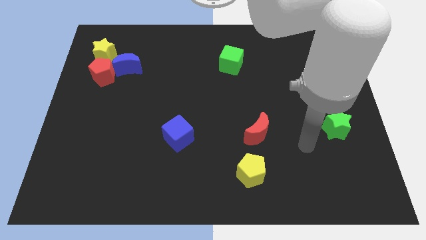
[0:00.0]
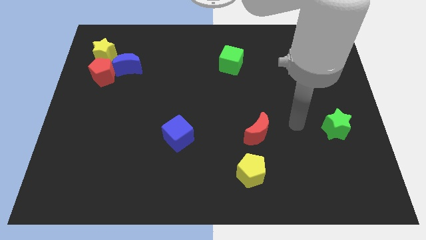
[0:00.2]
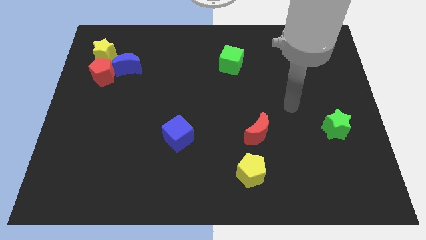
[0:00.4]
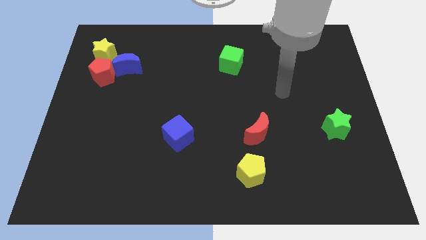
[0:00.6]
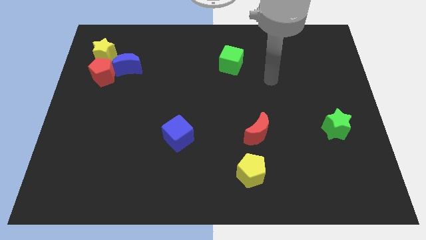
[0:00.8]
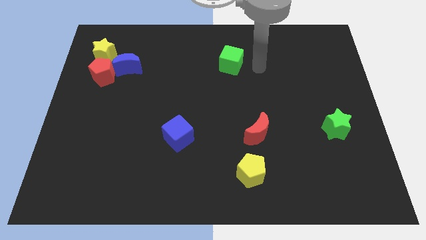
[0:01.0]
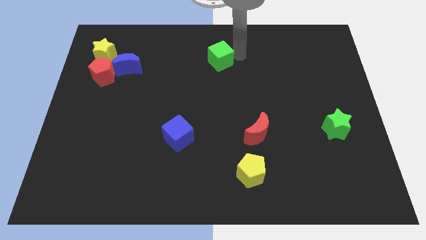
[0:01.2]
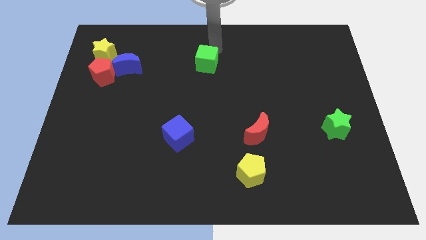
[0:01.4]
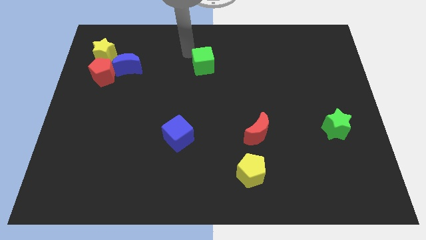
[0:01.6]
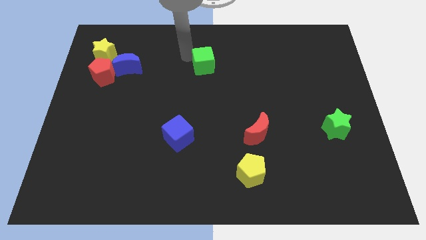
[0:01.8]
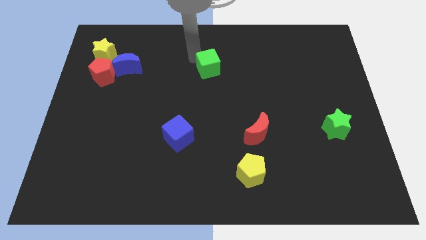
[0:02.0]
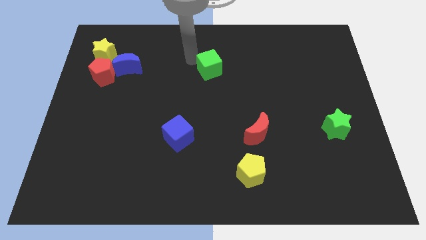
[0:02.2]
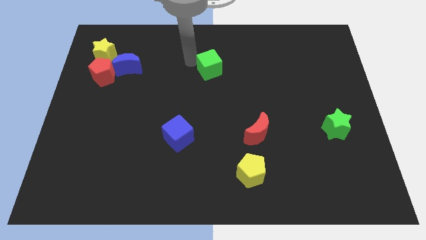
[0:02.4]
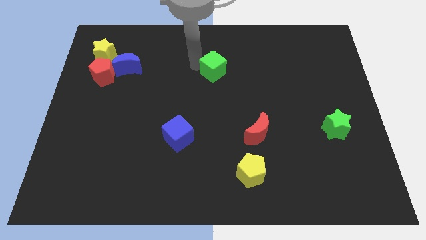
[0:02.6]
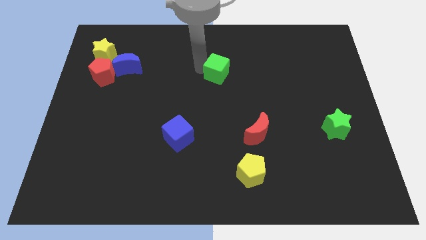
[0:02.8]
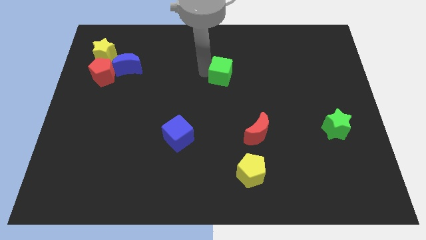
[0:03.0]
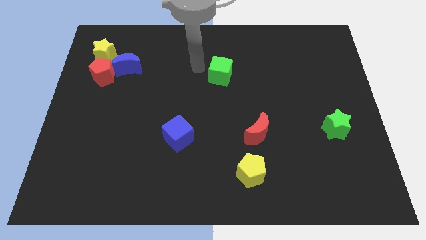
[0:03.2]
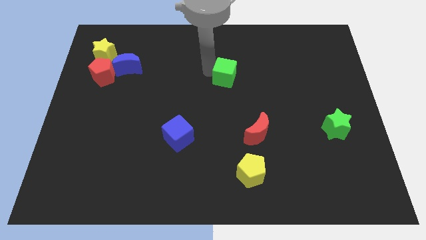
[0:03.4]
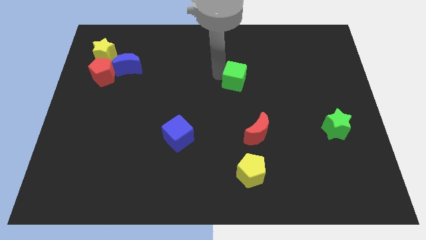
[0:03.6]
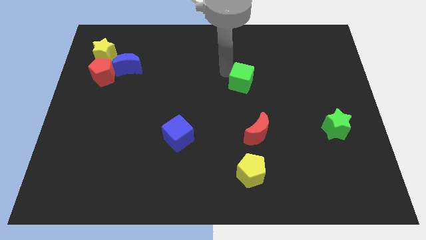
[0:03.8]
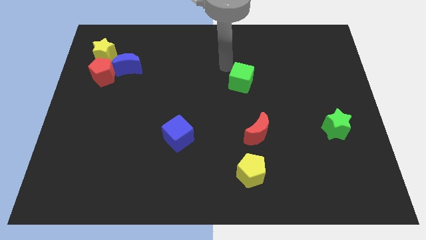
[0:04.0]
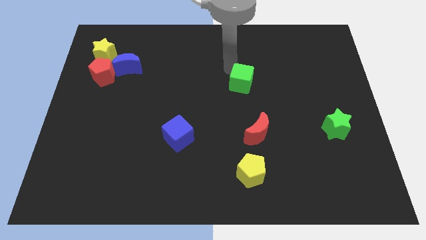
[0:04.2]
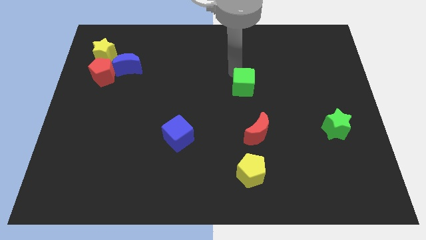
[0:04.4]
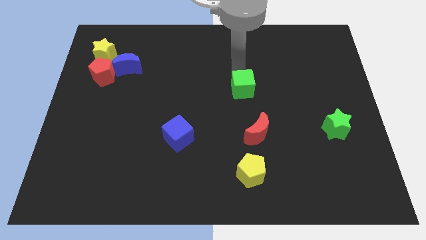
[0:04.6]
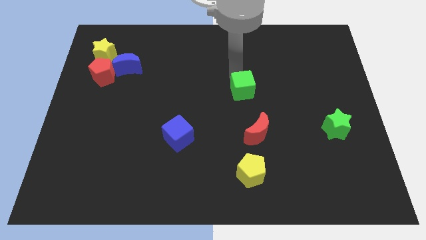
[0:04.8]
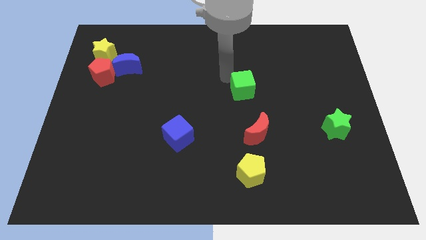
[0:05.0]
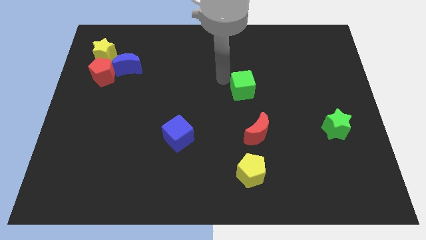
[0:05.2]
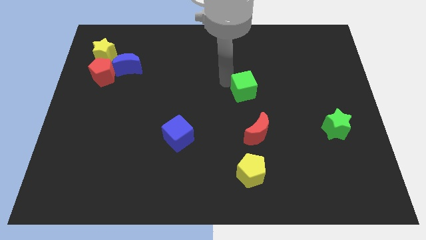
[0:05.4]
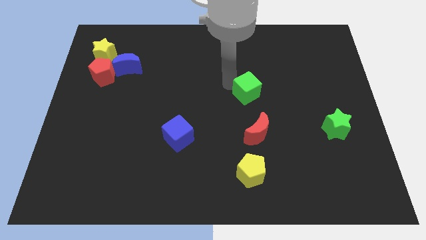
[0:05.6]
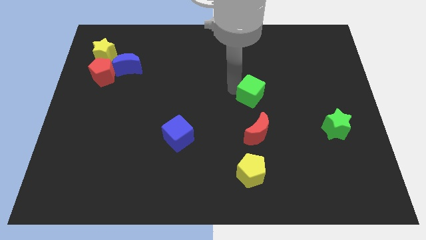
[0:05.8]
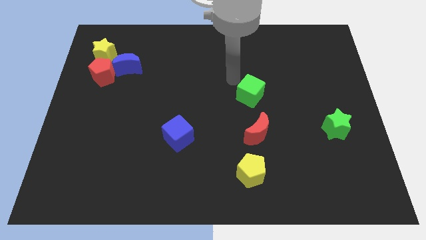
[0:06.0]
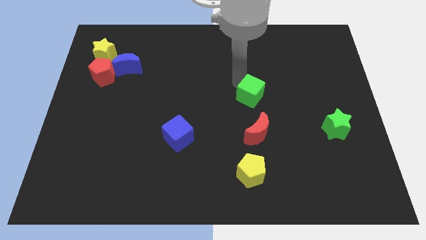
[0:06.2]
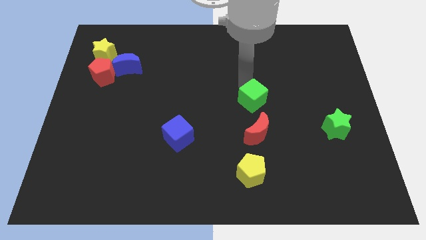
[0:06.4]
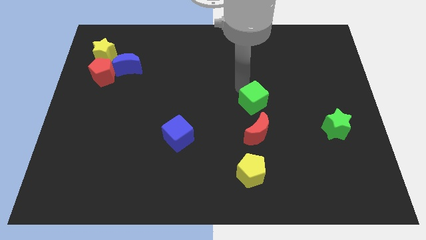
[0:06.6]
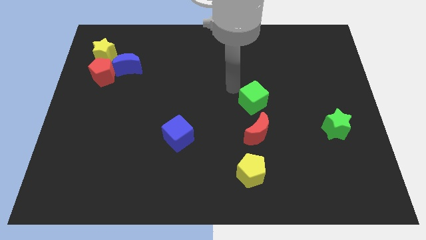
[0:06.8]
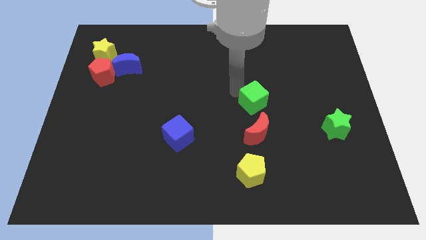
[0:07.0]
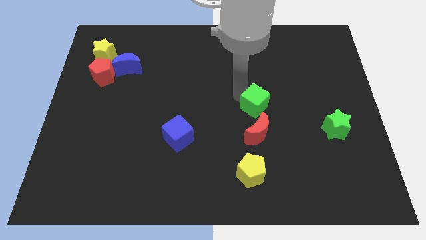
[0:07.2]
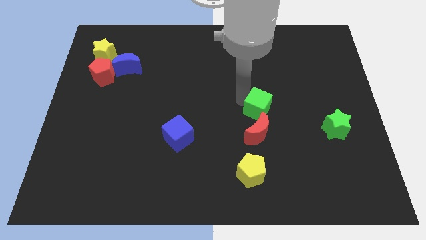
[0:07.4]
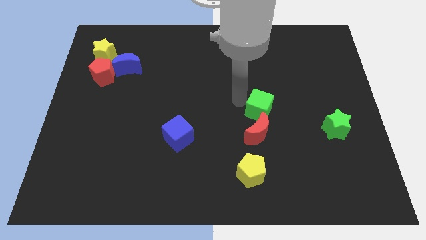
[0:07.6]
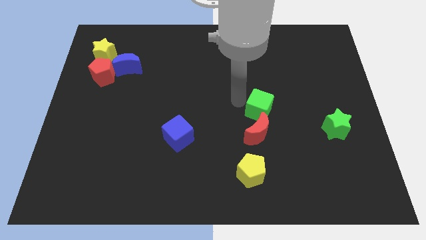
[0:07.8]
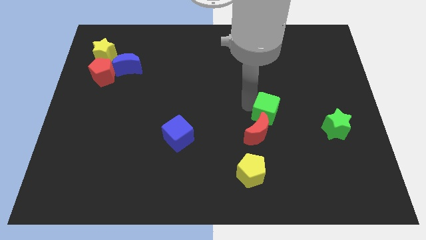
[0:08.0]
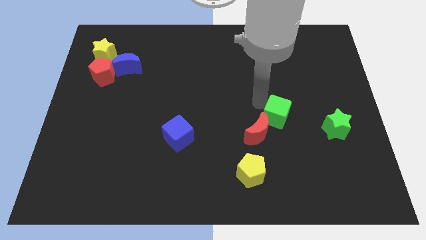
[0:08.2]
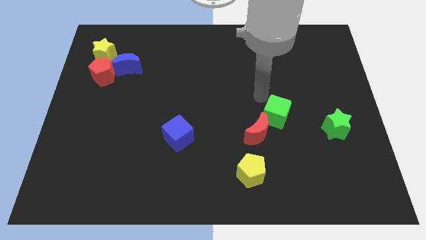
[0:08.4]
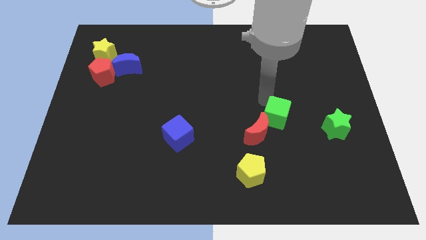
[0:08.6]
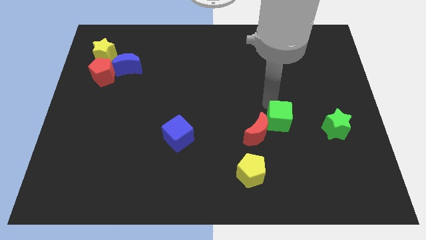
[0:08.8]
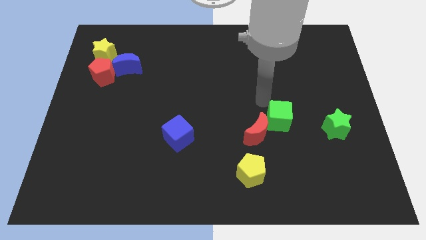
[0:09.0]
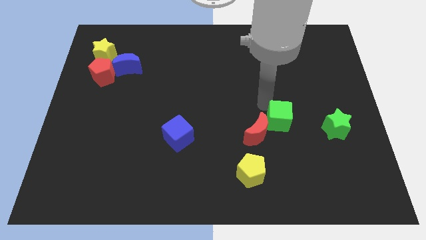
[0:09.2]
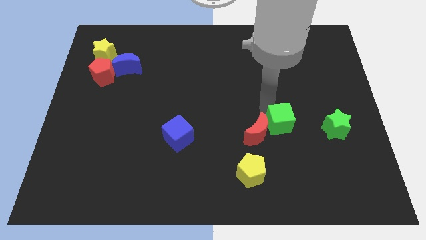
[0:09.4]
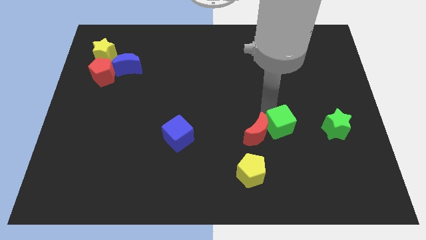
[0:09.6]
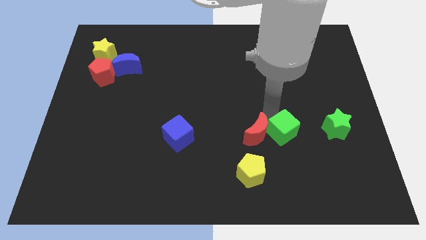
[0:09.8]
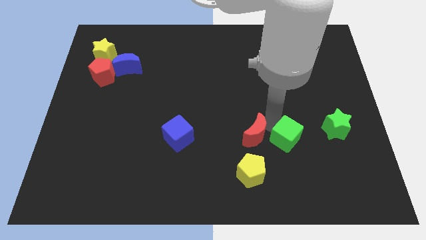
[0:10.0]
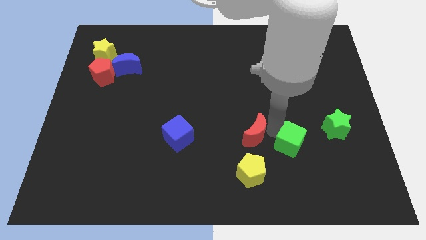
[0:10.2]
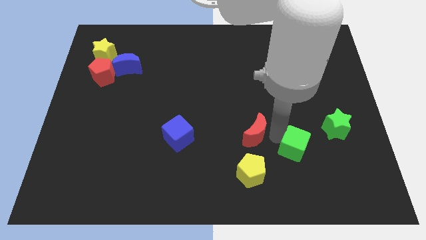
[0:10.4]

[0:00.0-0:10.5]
move the green cube to the bottom left of the green star

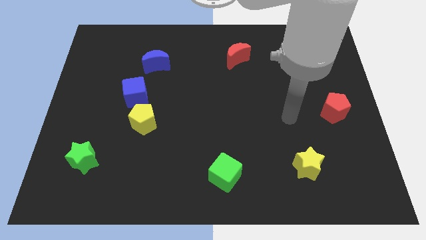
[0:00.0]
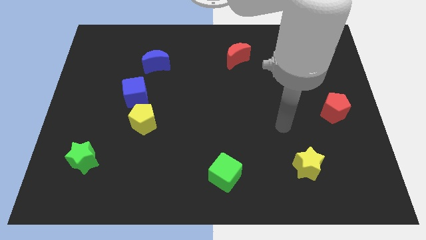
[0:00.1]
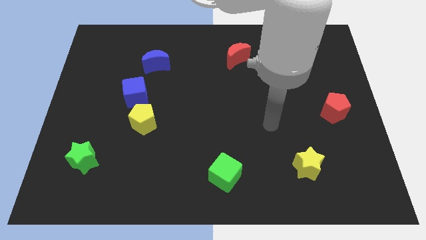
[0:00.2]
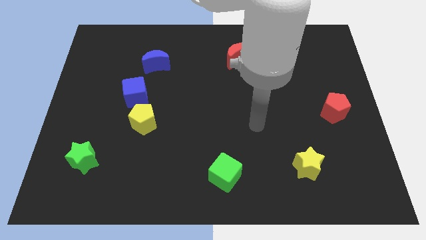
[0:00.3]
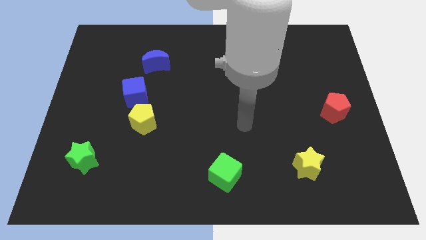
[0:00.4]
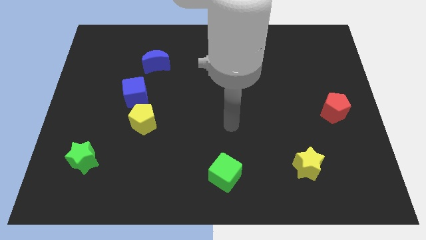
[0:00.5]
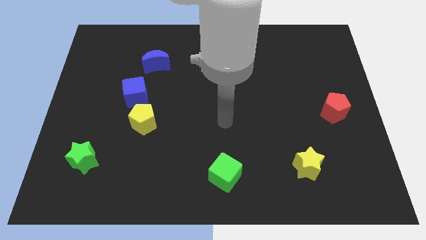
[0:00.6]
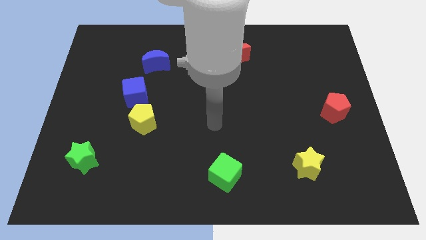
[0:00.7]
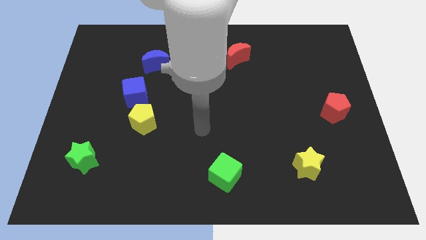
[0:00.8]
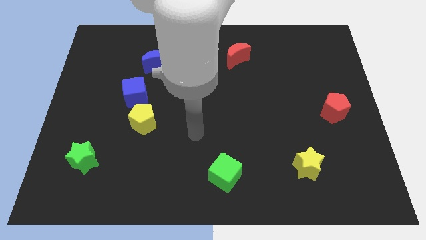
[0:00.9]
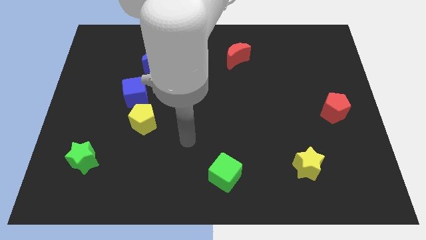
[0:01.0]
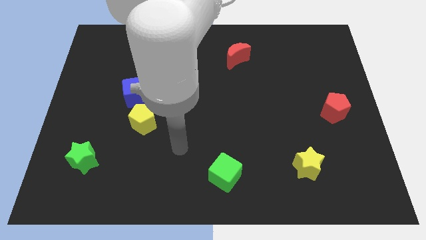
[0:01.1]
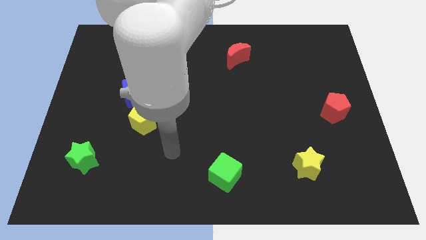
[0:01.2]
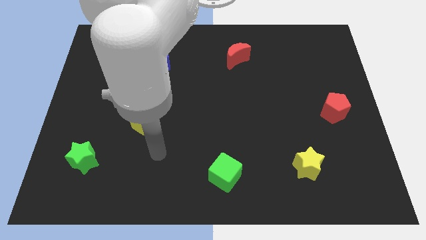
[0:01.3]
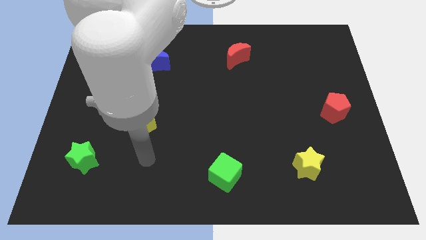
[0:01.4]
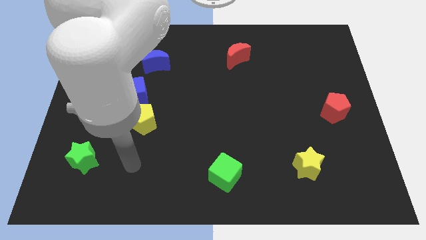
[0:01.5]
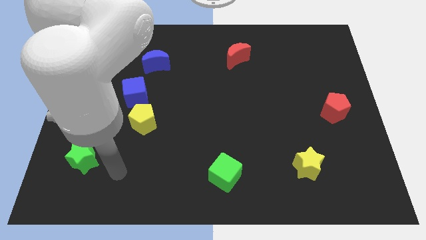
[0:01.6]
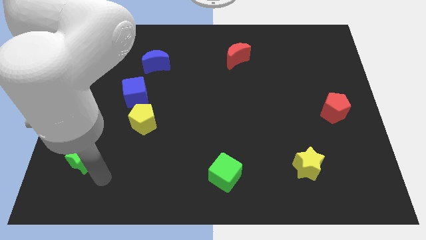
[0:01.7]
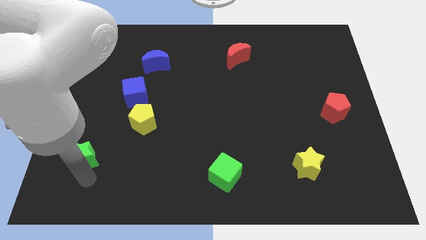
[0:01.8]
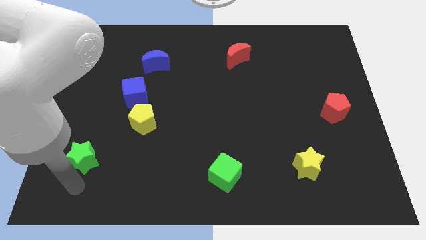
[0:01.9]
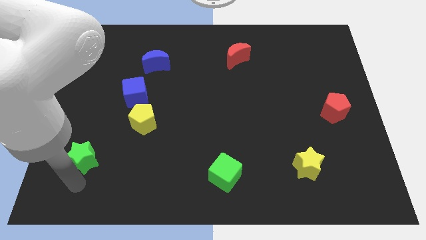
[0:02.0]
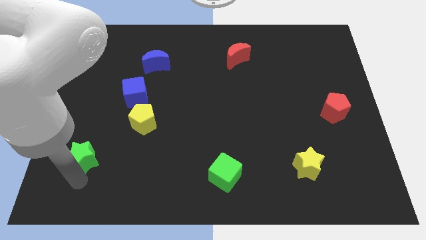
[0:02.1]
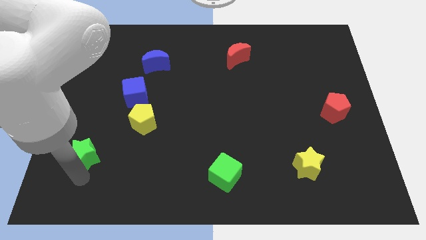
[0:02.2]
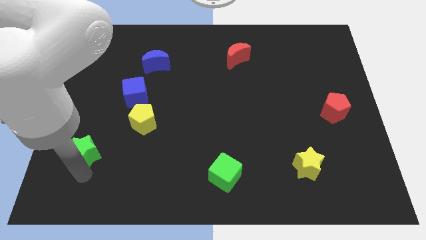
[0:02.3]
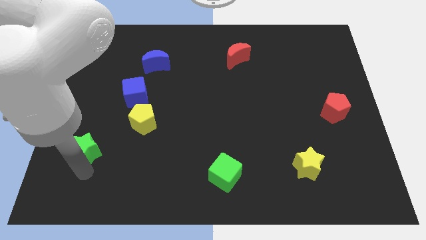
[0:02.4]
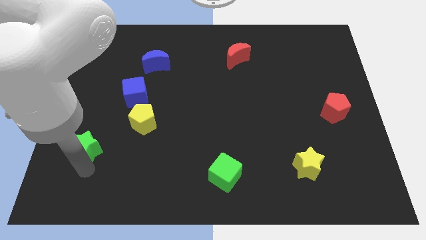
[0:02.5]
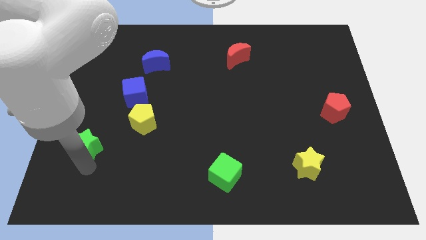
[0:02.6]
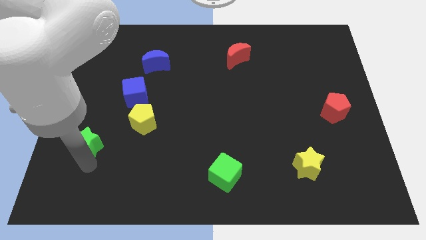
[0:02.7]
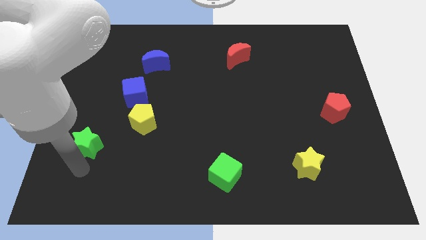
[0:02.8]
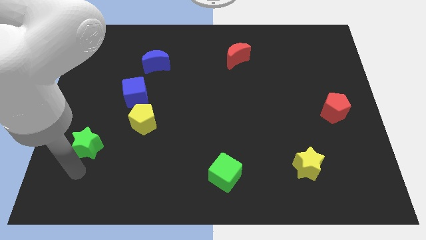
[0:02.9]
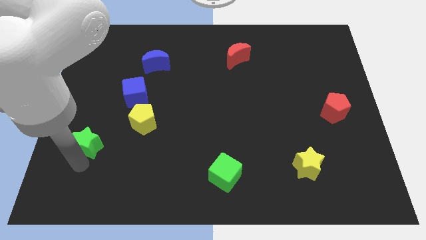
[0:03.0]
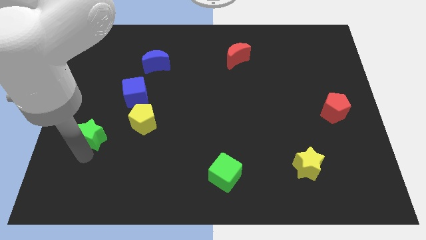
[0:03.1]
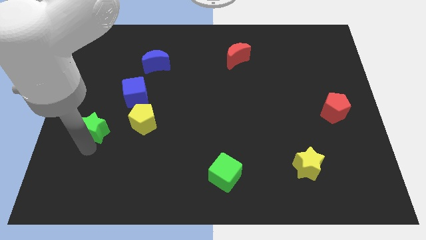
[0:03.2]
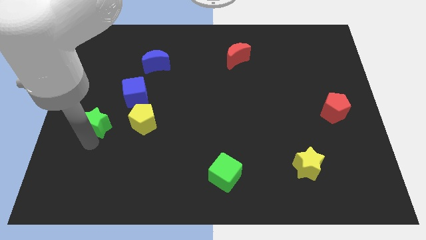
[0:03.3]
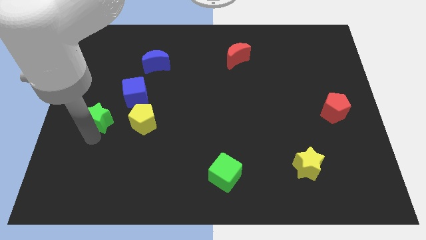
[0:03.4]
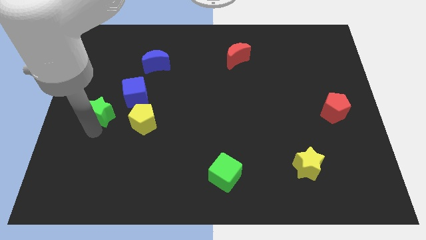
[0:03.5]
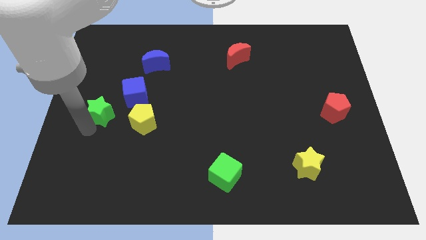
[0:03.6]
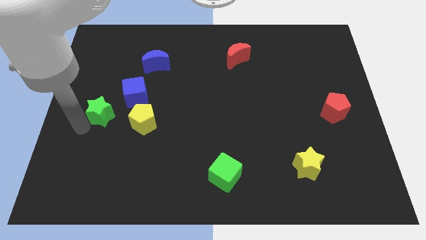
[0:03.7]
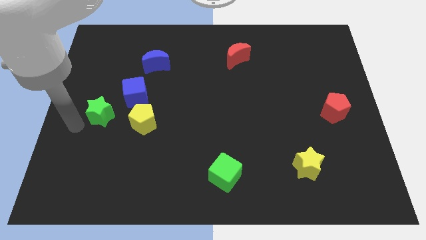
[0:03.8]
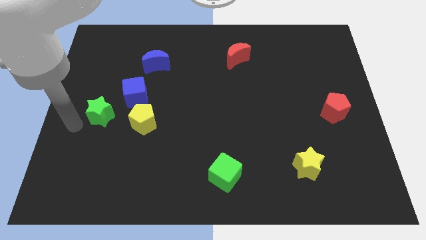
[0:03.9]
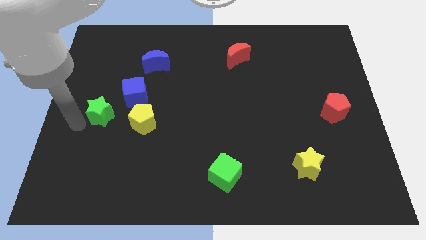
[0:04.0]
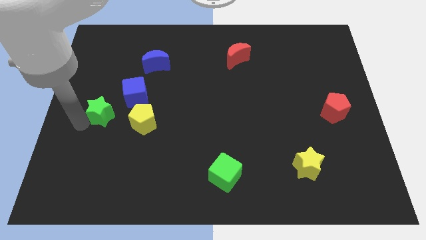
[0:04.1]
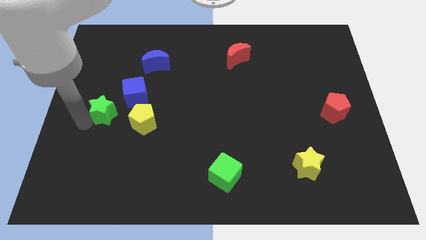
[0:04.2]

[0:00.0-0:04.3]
push the green star to the top left side of the yellow pentagon
